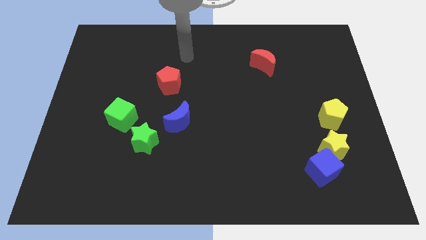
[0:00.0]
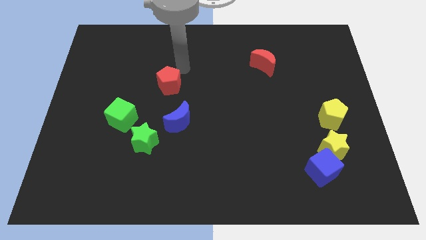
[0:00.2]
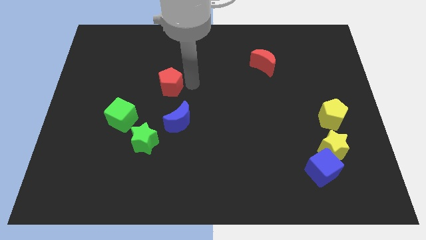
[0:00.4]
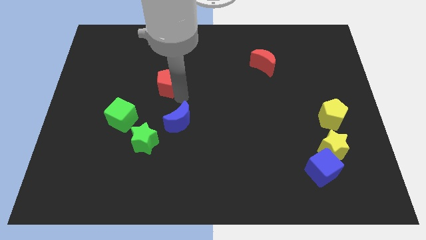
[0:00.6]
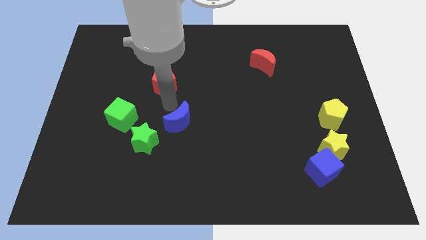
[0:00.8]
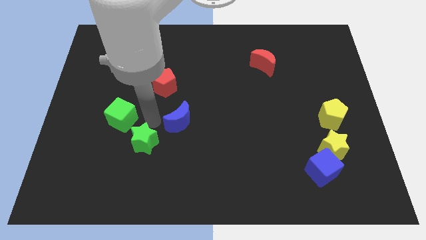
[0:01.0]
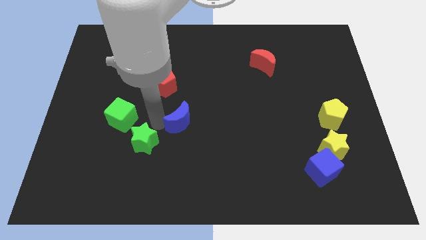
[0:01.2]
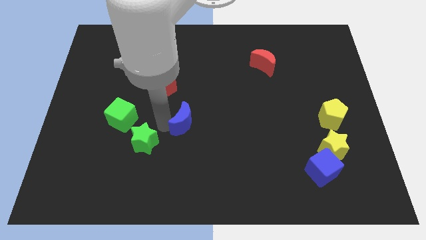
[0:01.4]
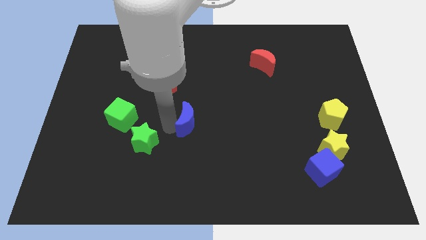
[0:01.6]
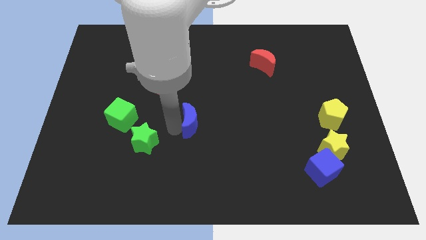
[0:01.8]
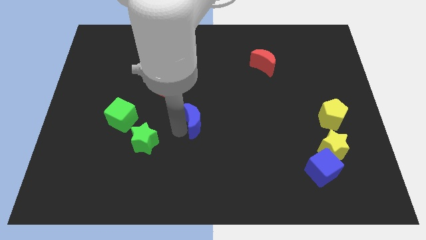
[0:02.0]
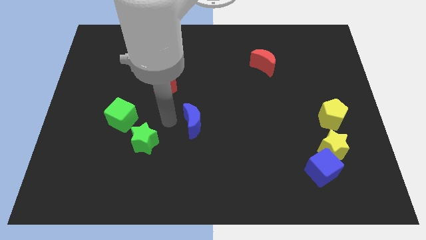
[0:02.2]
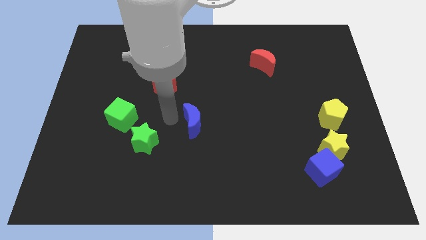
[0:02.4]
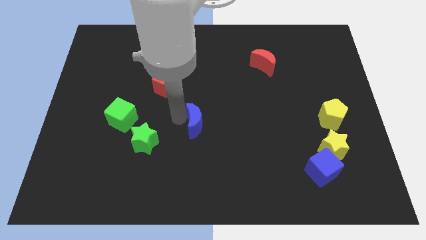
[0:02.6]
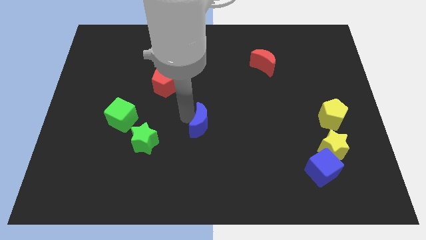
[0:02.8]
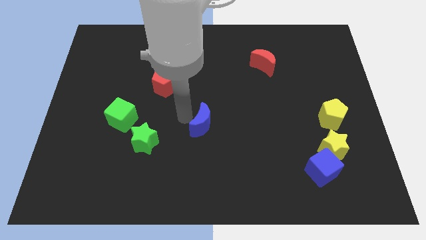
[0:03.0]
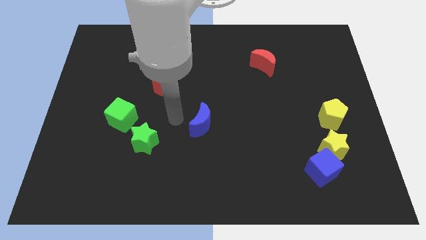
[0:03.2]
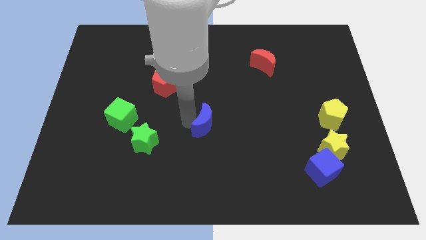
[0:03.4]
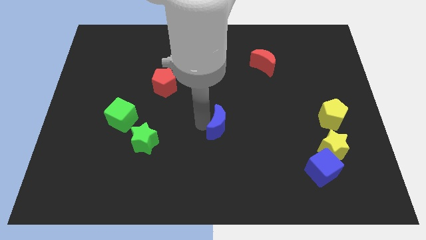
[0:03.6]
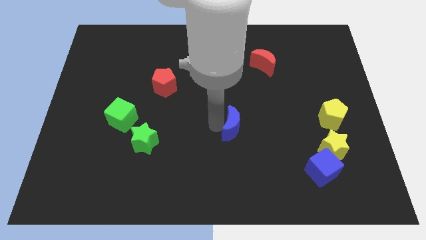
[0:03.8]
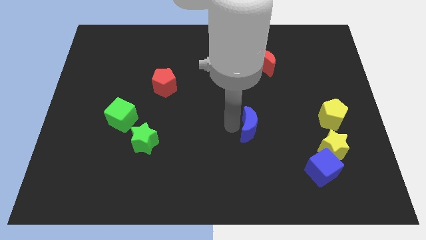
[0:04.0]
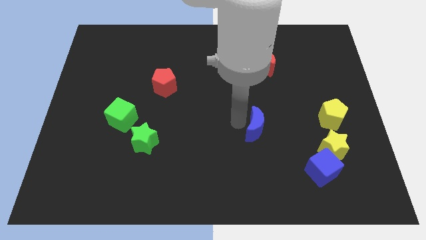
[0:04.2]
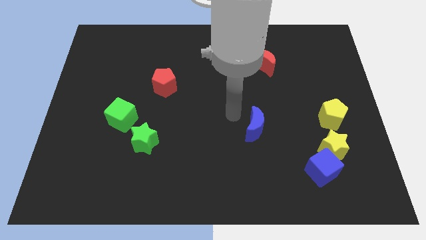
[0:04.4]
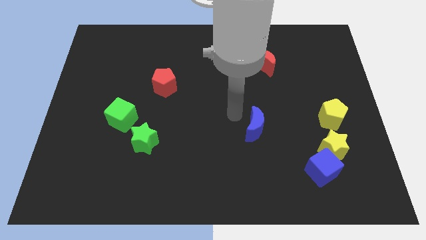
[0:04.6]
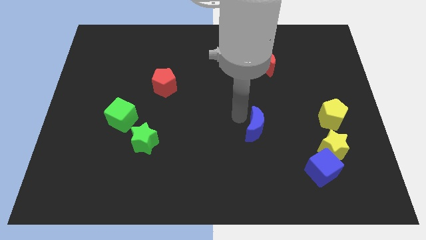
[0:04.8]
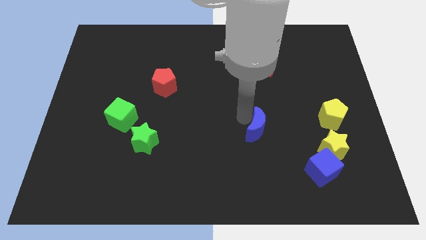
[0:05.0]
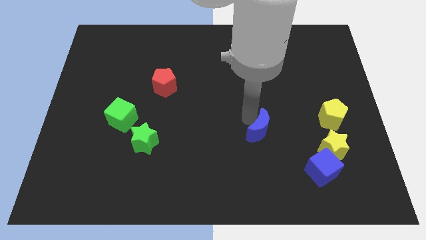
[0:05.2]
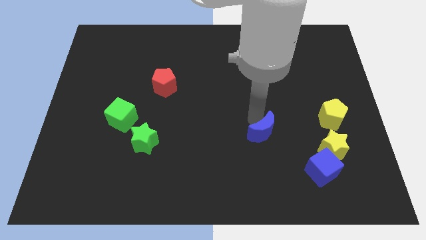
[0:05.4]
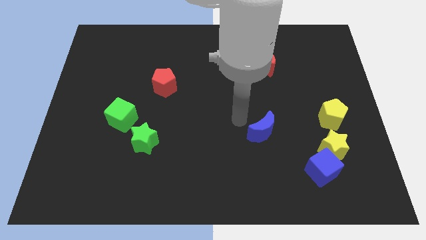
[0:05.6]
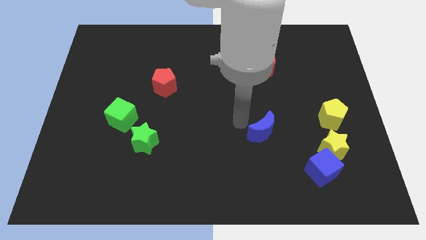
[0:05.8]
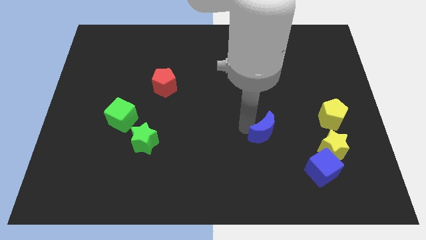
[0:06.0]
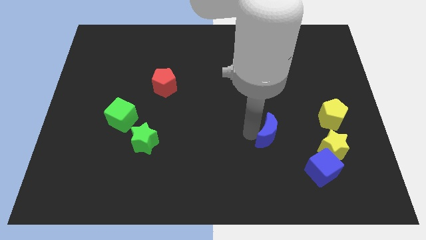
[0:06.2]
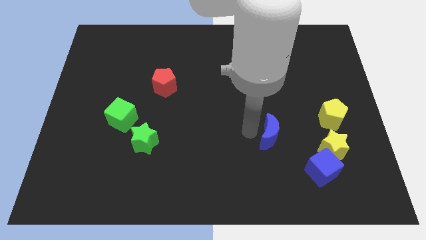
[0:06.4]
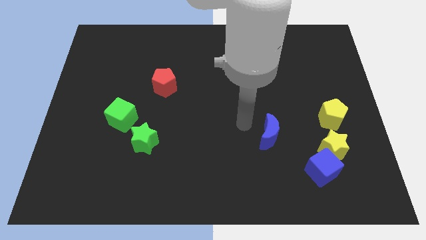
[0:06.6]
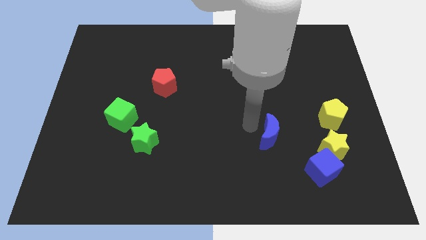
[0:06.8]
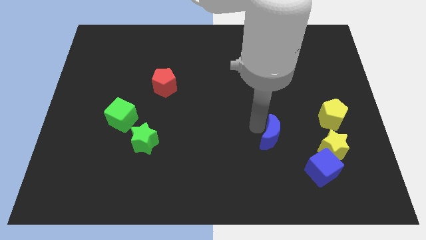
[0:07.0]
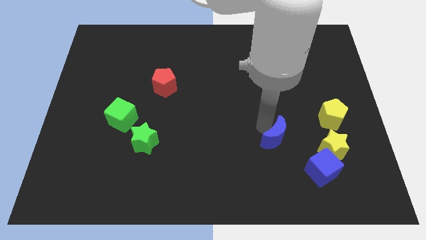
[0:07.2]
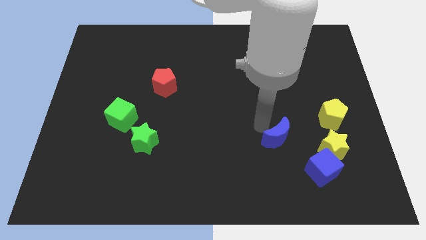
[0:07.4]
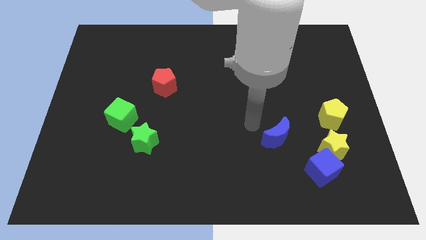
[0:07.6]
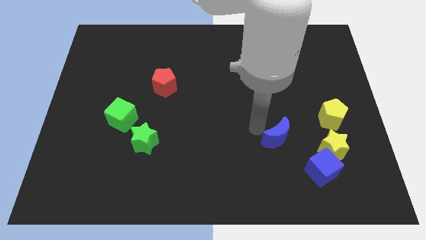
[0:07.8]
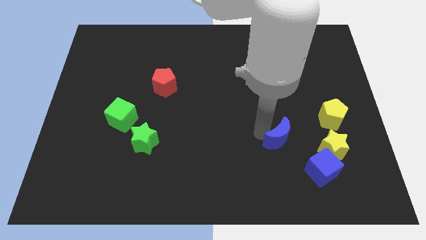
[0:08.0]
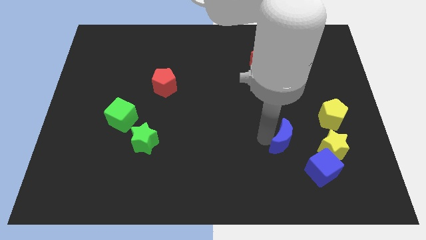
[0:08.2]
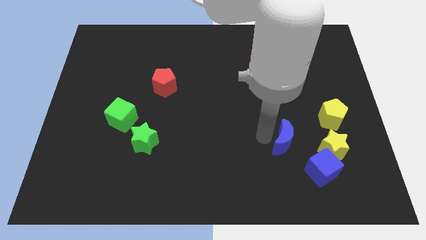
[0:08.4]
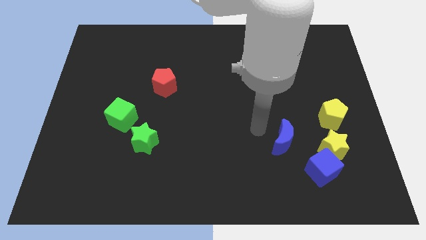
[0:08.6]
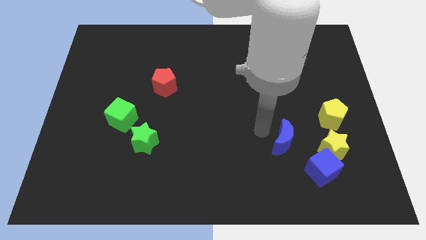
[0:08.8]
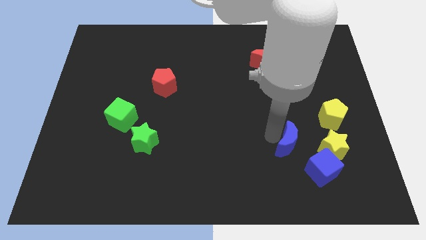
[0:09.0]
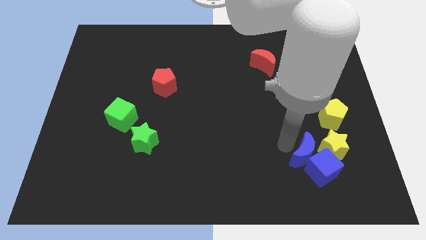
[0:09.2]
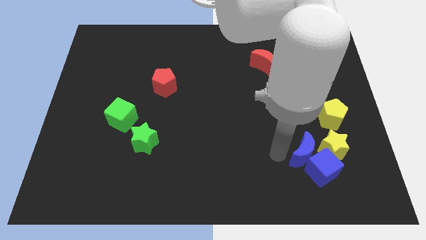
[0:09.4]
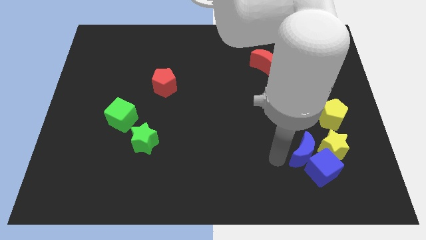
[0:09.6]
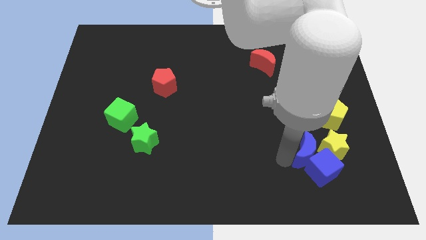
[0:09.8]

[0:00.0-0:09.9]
push the blue moon towards the yellow star

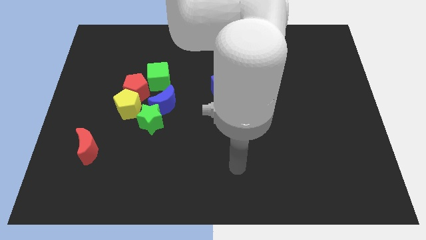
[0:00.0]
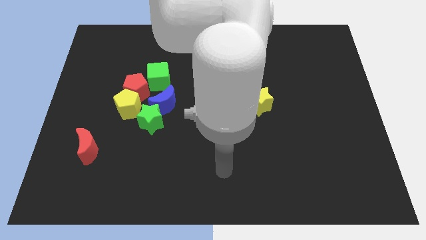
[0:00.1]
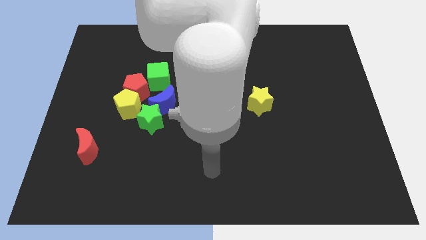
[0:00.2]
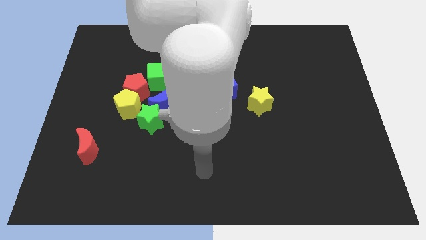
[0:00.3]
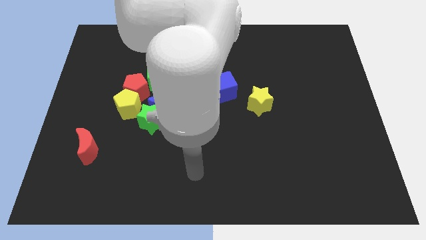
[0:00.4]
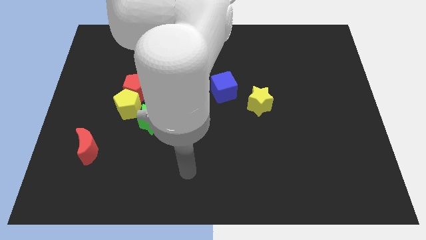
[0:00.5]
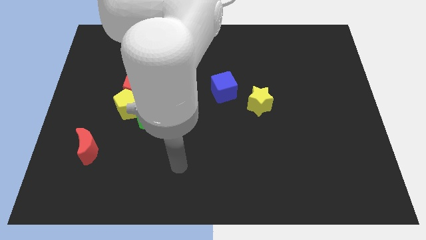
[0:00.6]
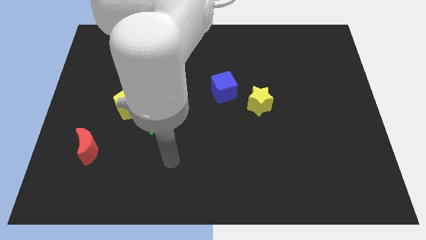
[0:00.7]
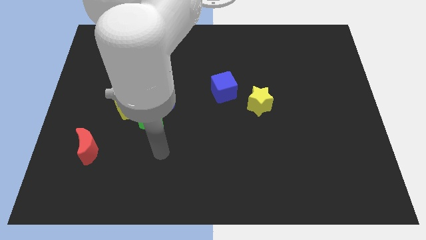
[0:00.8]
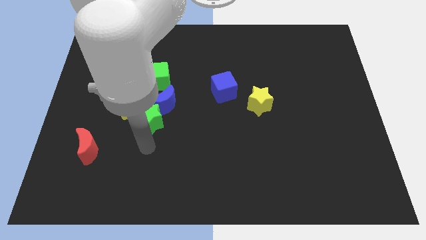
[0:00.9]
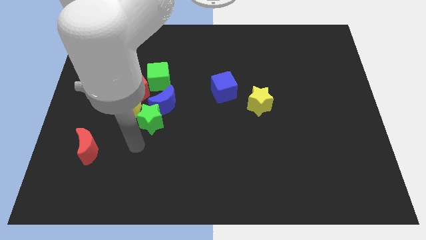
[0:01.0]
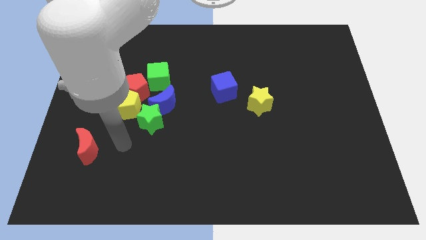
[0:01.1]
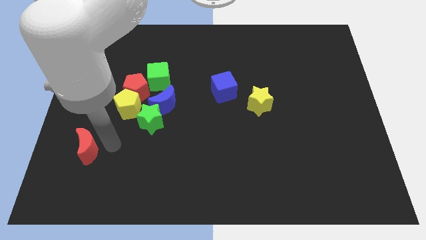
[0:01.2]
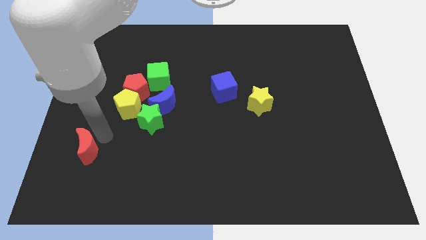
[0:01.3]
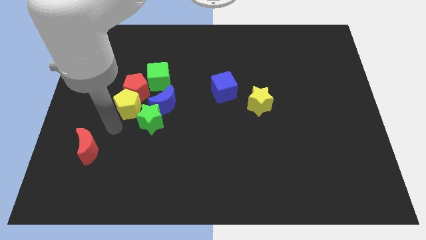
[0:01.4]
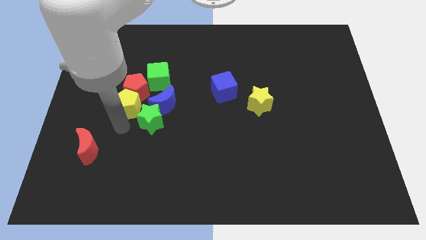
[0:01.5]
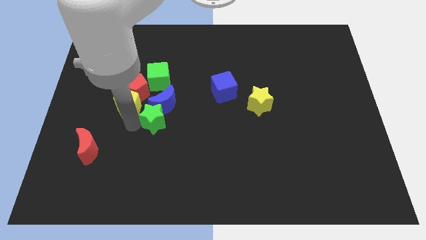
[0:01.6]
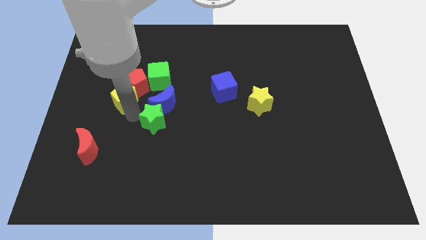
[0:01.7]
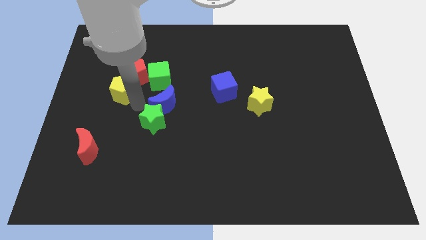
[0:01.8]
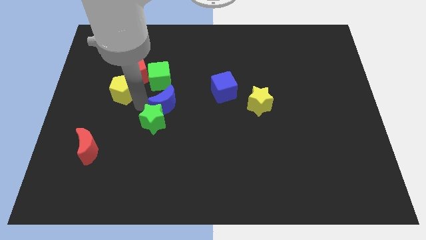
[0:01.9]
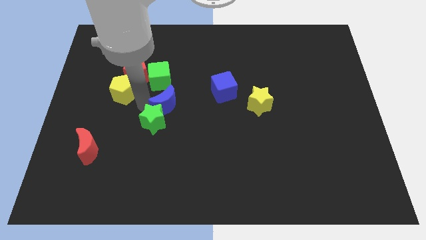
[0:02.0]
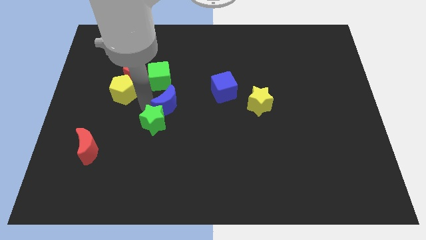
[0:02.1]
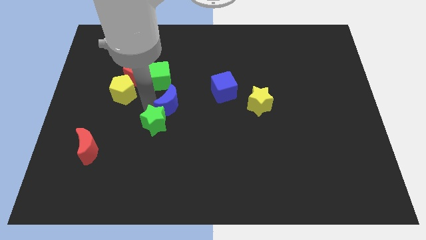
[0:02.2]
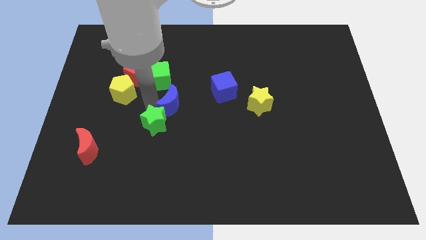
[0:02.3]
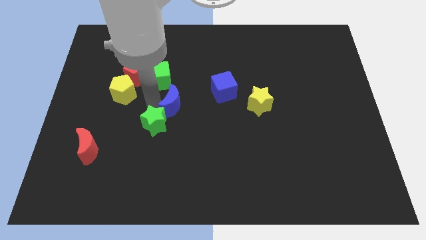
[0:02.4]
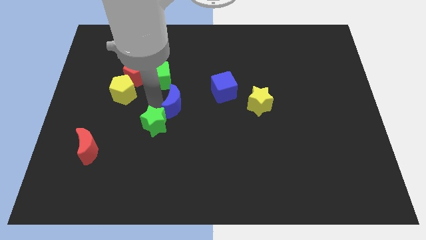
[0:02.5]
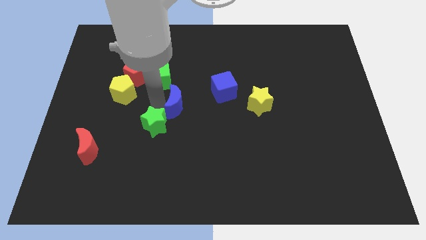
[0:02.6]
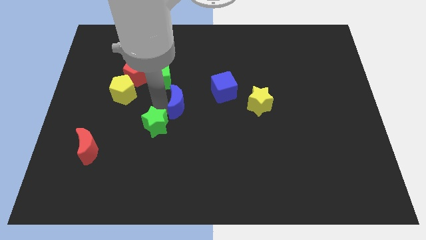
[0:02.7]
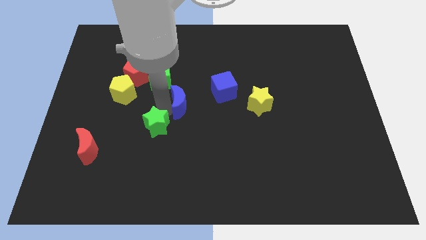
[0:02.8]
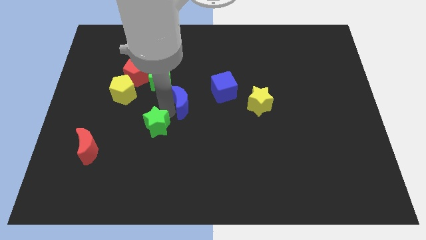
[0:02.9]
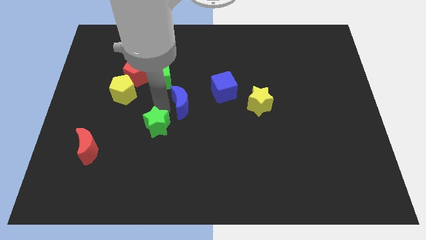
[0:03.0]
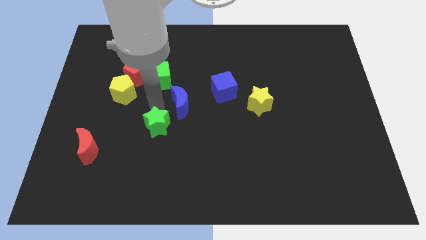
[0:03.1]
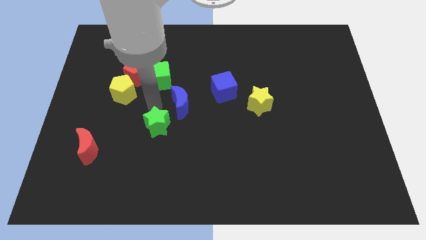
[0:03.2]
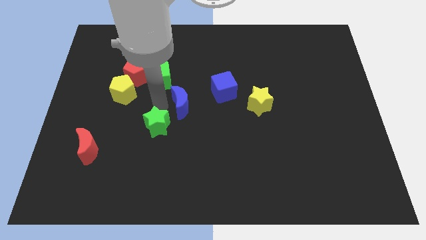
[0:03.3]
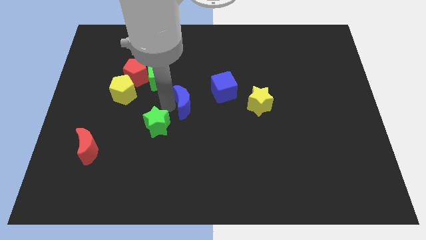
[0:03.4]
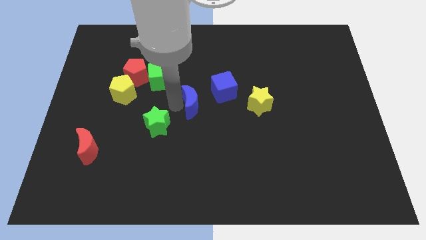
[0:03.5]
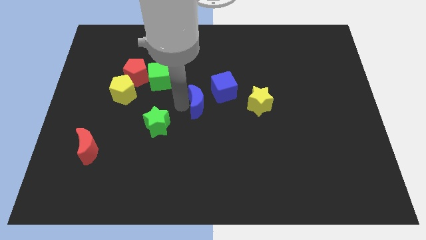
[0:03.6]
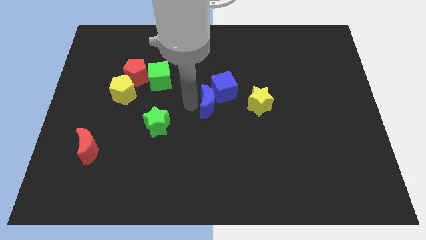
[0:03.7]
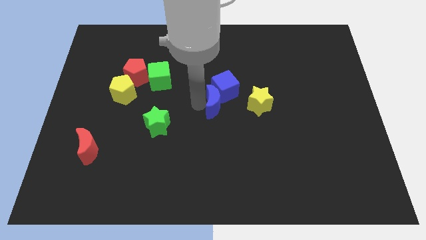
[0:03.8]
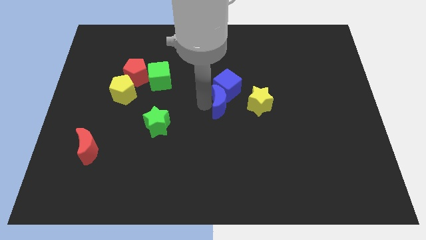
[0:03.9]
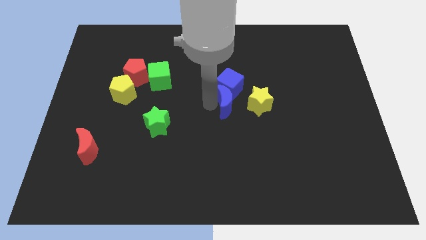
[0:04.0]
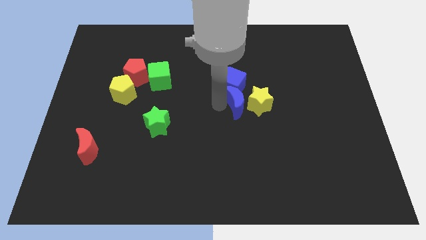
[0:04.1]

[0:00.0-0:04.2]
slide the blue moon to the yellow star
